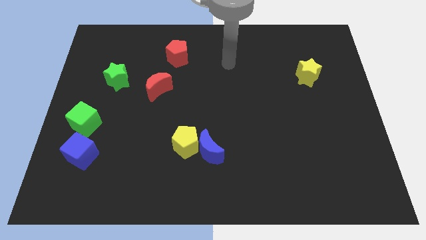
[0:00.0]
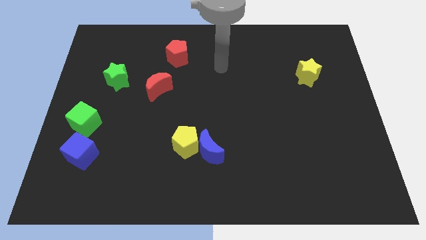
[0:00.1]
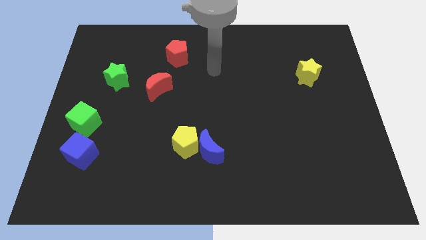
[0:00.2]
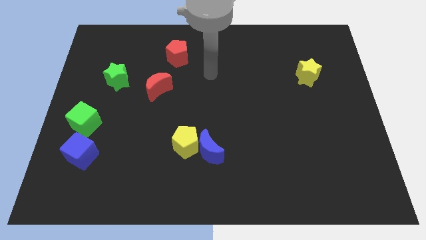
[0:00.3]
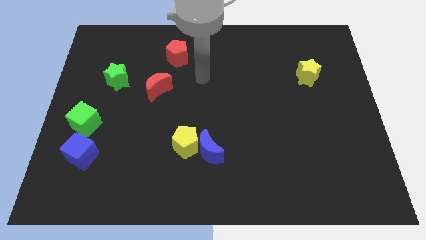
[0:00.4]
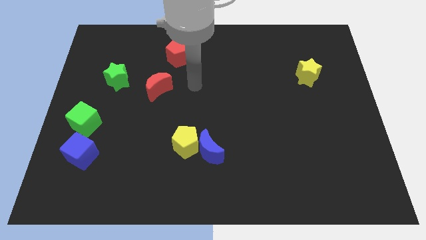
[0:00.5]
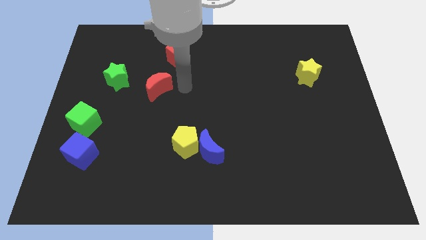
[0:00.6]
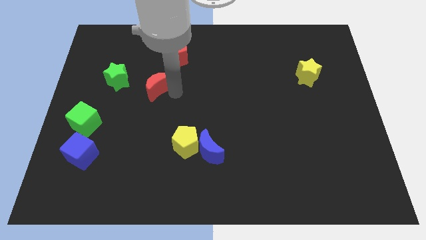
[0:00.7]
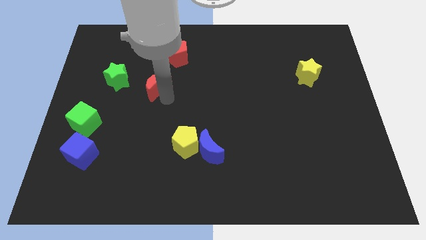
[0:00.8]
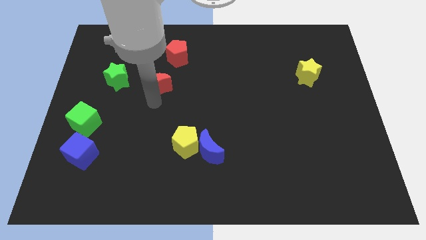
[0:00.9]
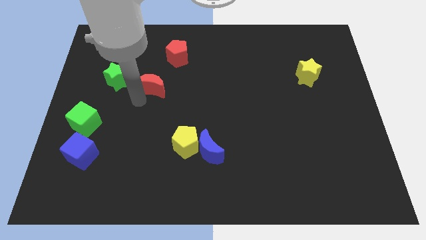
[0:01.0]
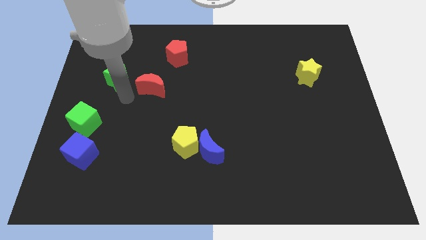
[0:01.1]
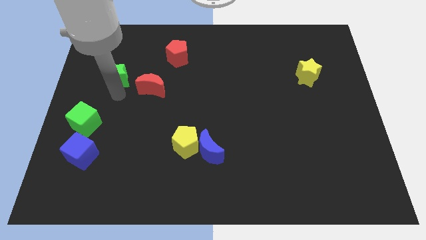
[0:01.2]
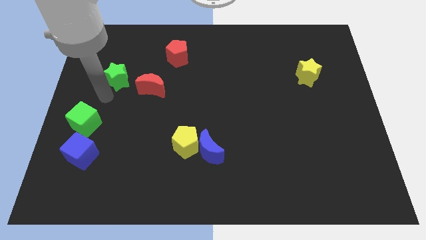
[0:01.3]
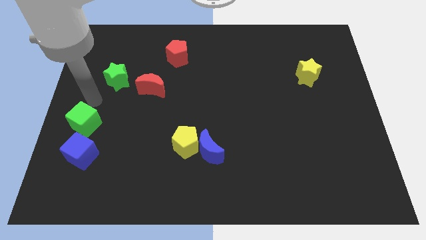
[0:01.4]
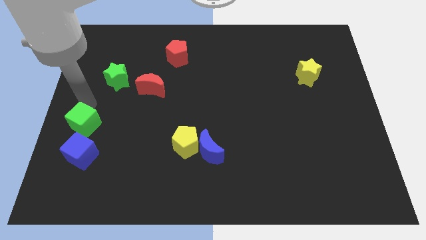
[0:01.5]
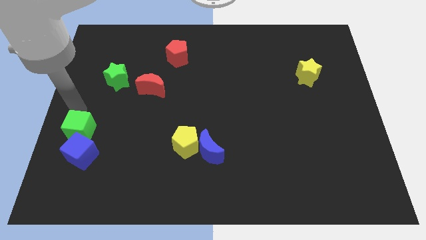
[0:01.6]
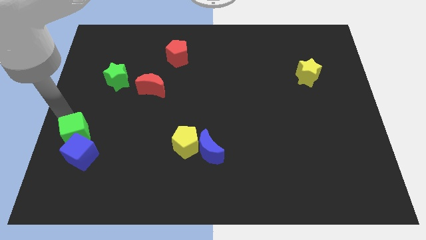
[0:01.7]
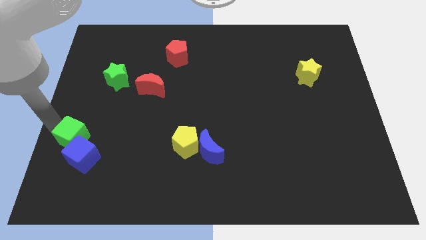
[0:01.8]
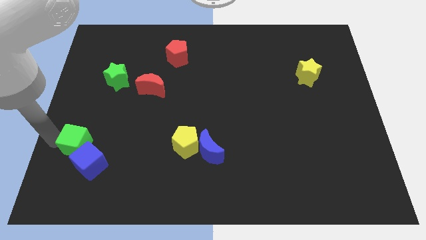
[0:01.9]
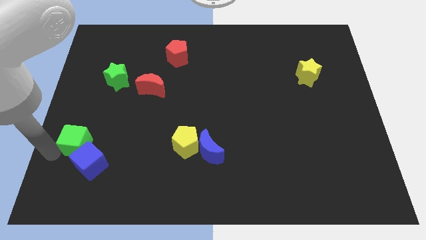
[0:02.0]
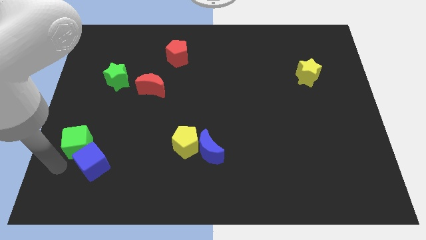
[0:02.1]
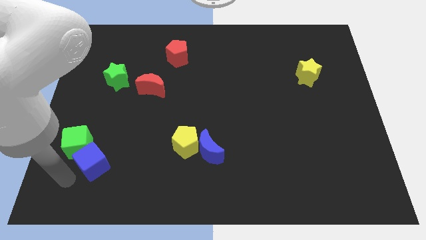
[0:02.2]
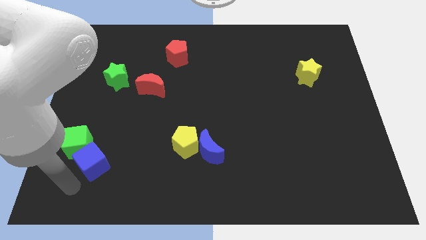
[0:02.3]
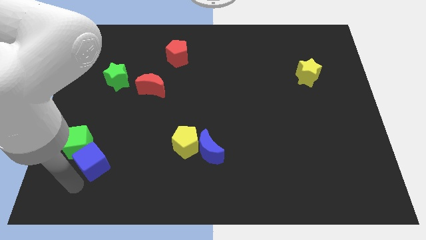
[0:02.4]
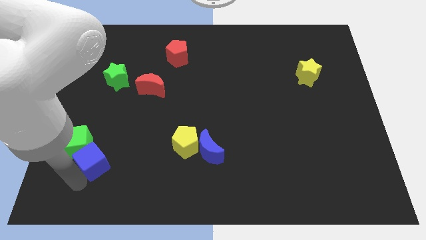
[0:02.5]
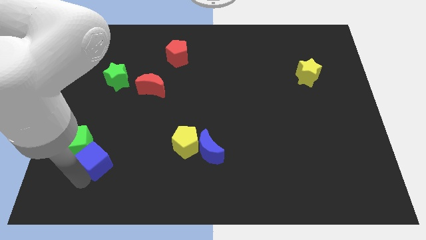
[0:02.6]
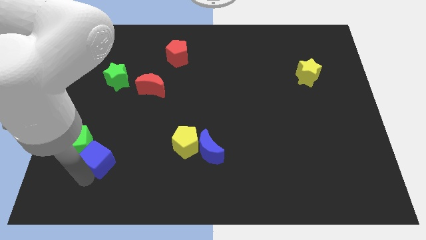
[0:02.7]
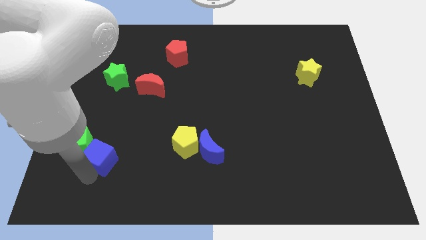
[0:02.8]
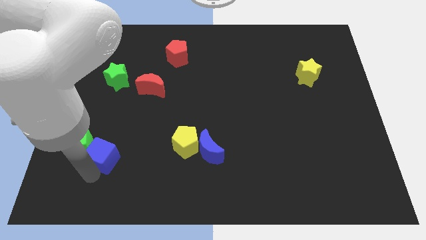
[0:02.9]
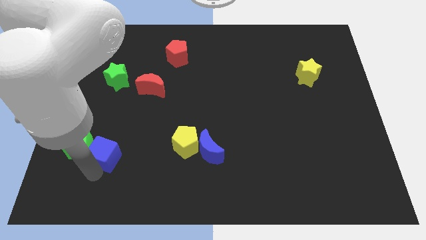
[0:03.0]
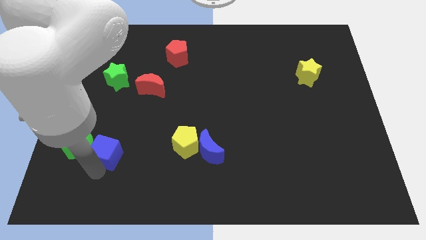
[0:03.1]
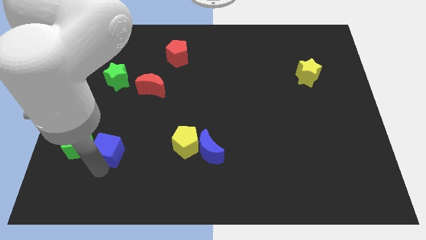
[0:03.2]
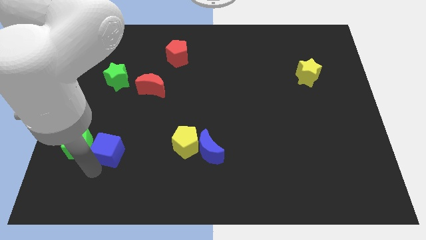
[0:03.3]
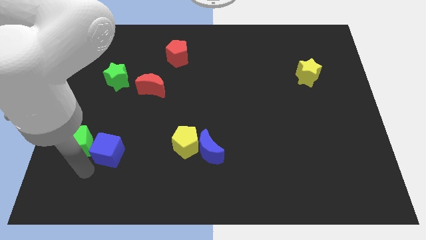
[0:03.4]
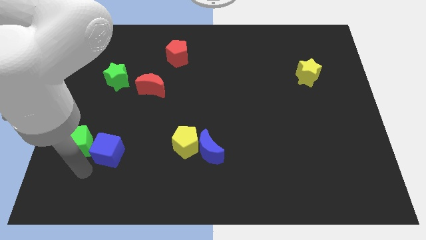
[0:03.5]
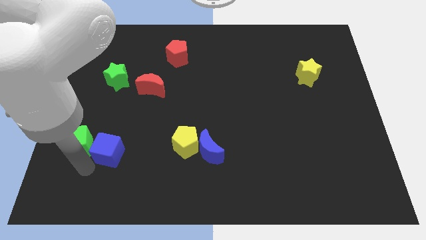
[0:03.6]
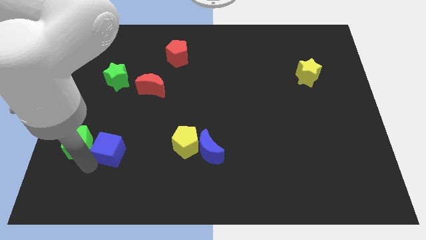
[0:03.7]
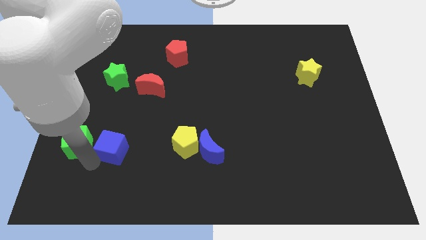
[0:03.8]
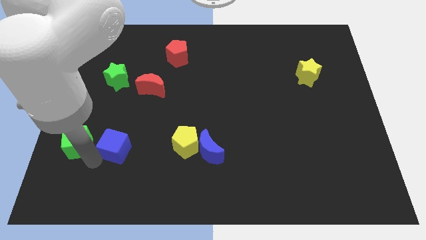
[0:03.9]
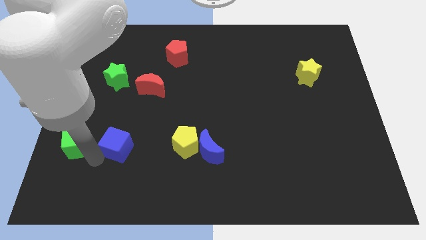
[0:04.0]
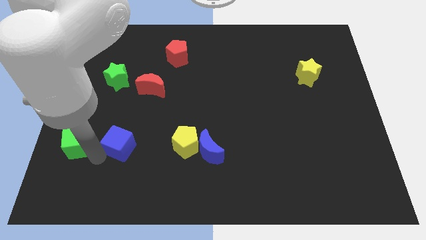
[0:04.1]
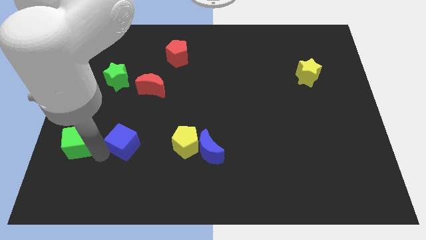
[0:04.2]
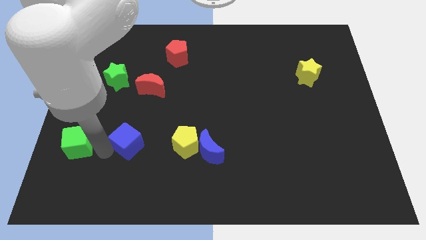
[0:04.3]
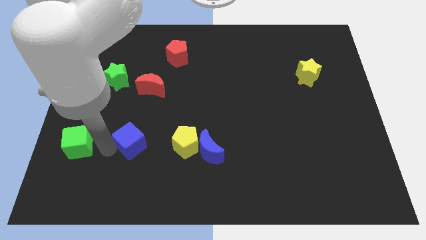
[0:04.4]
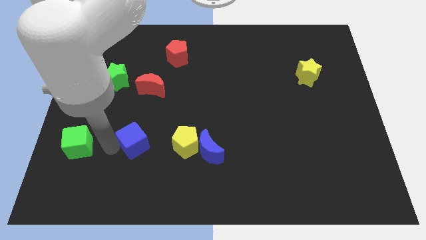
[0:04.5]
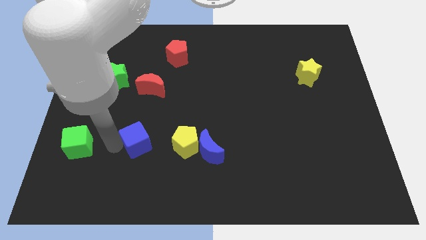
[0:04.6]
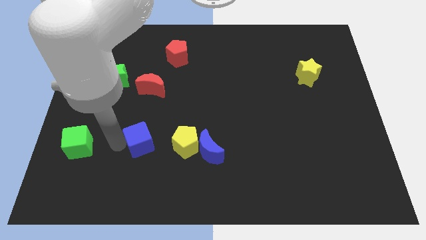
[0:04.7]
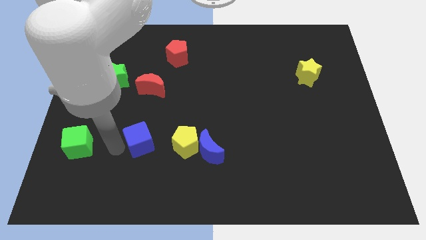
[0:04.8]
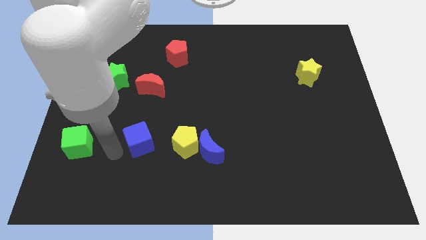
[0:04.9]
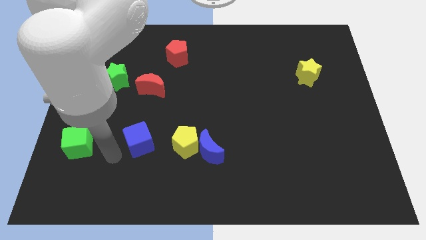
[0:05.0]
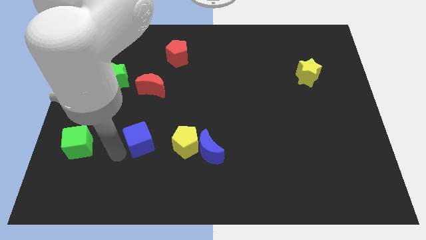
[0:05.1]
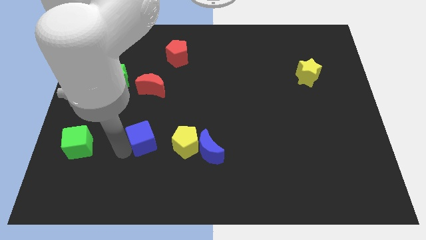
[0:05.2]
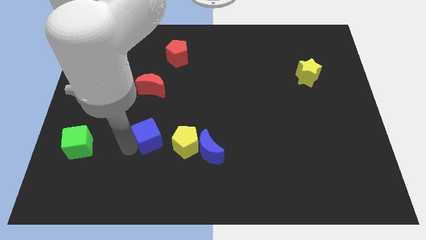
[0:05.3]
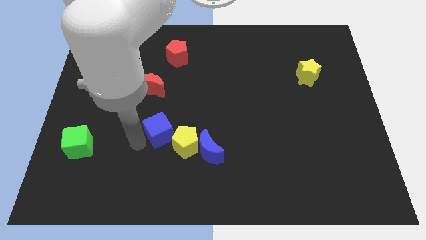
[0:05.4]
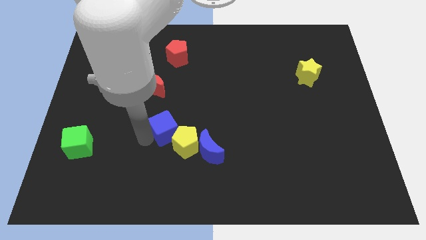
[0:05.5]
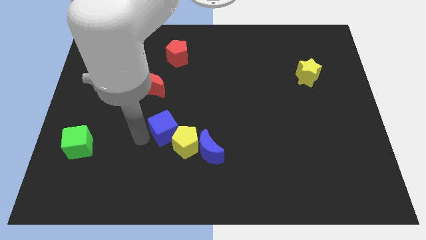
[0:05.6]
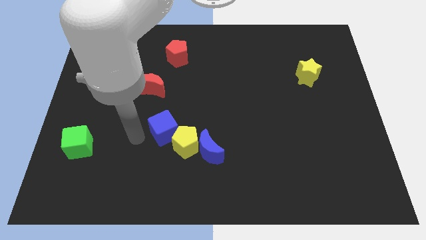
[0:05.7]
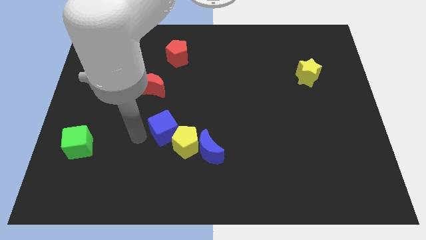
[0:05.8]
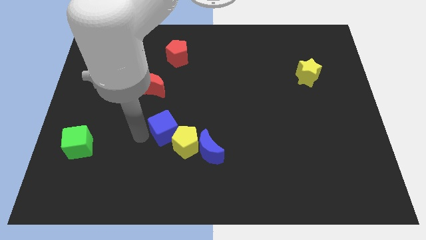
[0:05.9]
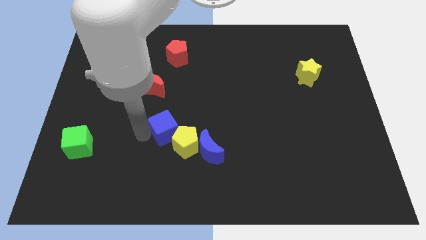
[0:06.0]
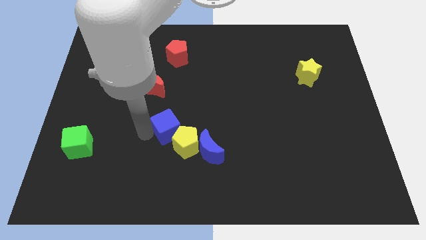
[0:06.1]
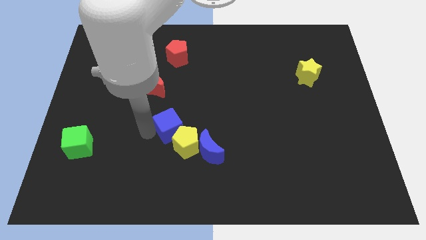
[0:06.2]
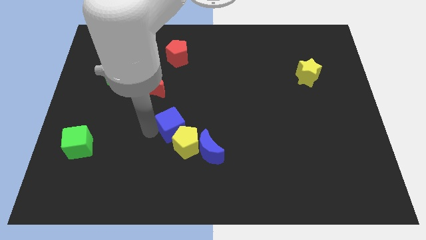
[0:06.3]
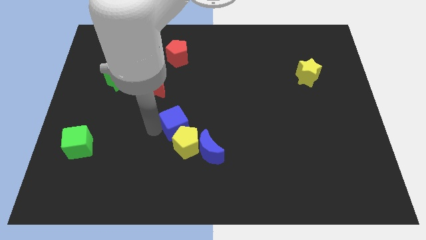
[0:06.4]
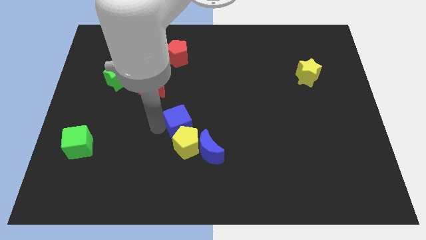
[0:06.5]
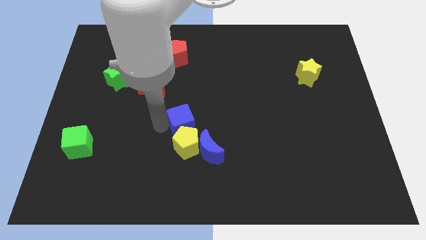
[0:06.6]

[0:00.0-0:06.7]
slide the blue cube diagonally up and to the right of the yellow pentagon

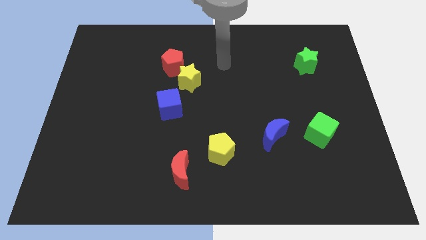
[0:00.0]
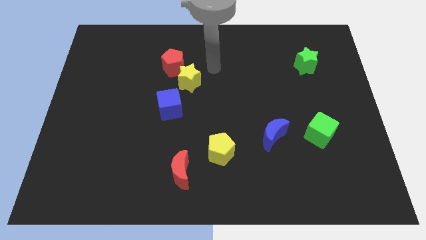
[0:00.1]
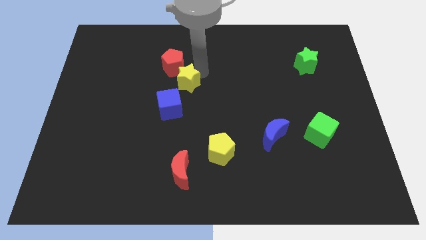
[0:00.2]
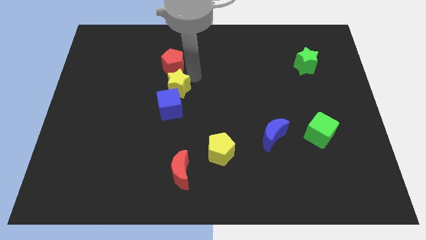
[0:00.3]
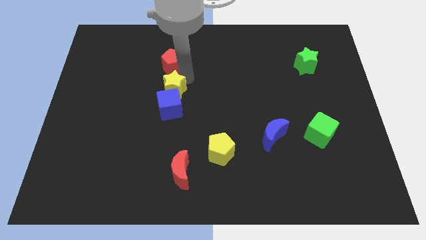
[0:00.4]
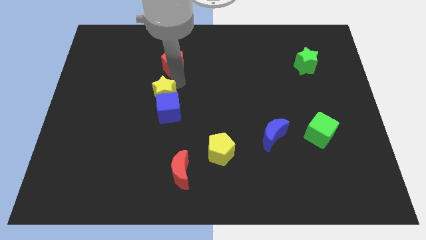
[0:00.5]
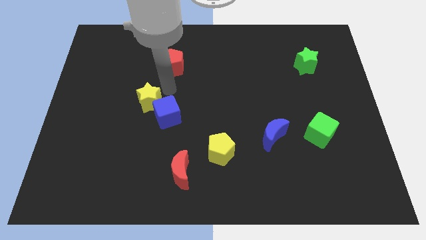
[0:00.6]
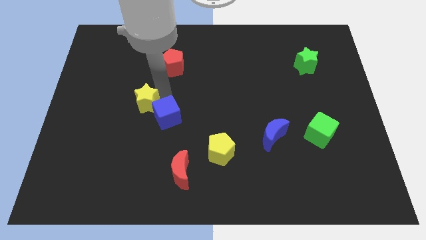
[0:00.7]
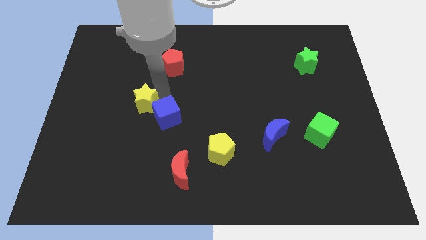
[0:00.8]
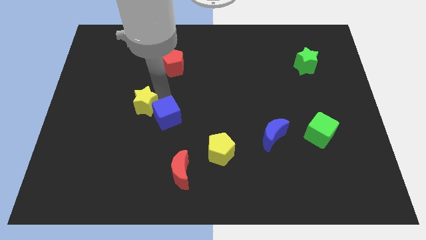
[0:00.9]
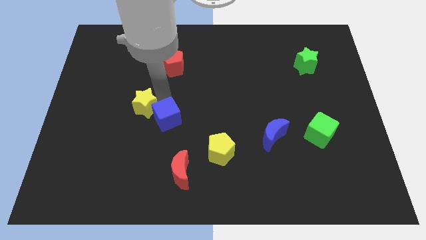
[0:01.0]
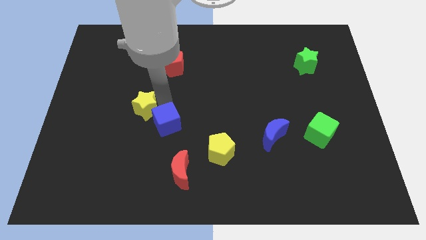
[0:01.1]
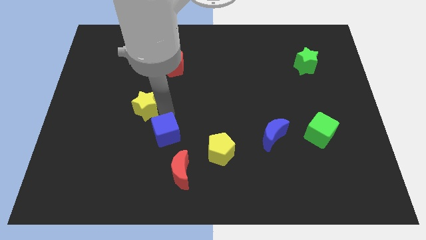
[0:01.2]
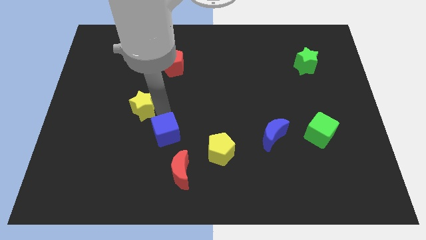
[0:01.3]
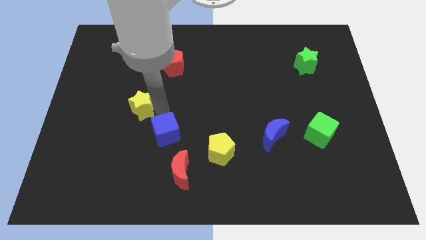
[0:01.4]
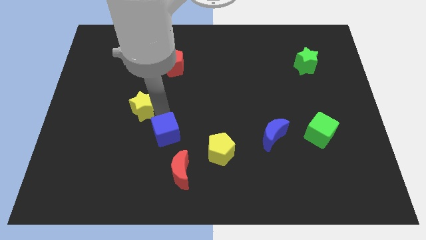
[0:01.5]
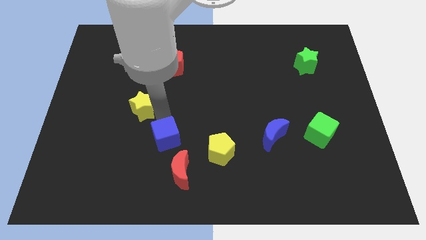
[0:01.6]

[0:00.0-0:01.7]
put the blue cube to the left side of the yellow pentagon
